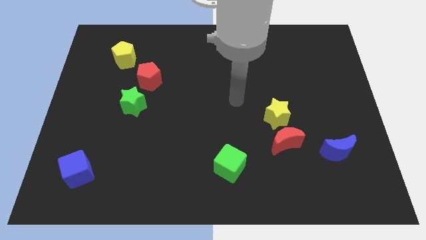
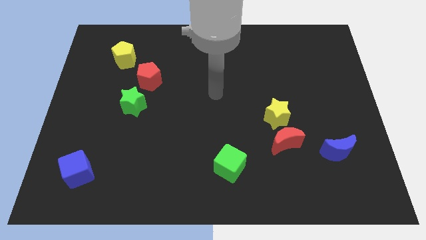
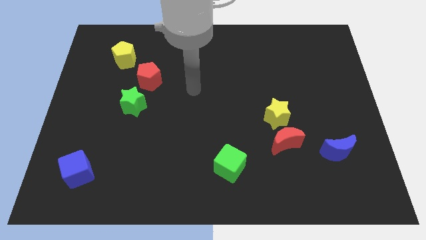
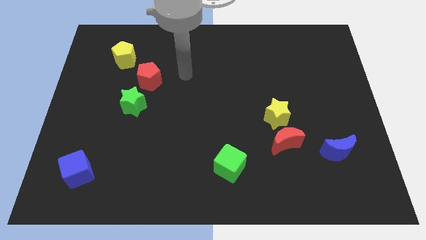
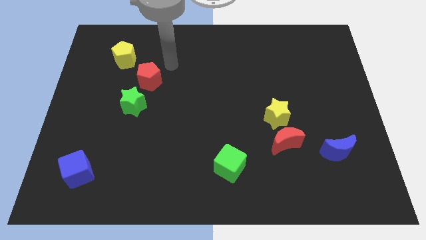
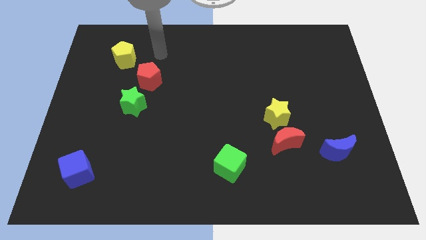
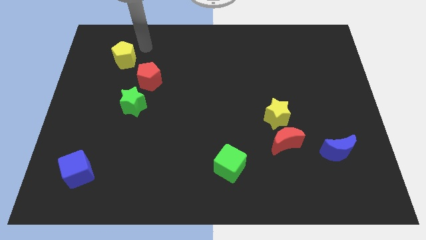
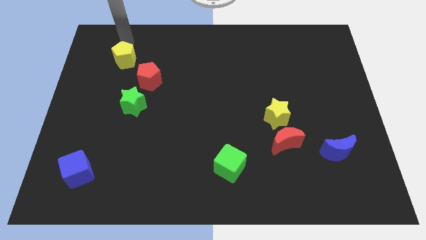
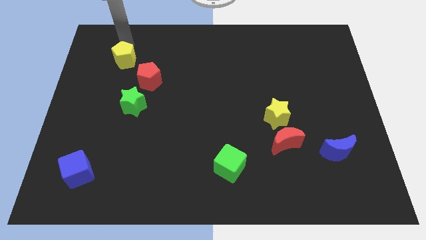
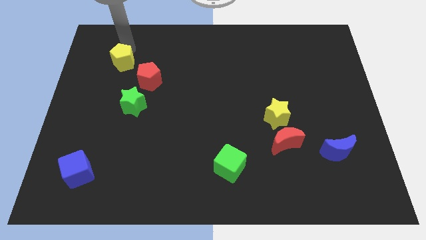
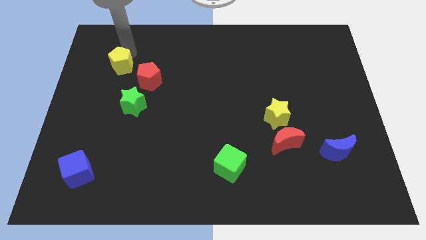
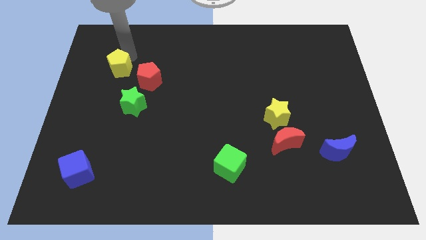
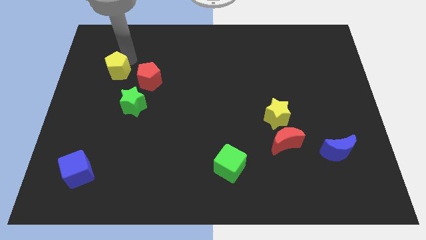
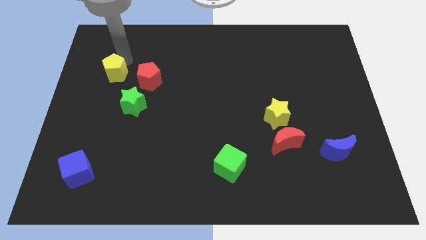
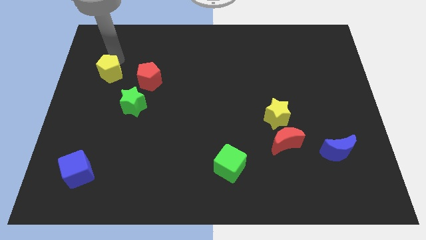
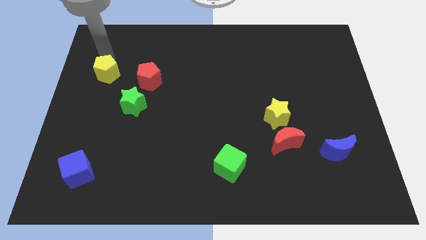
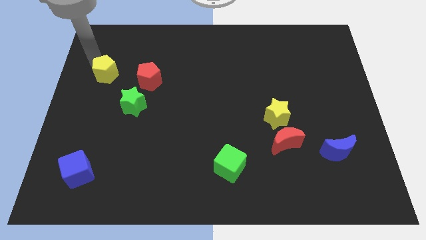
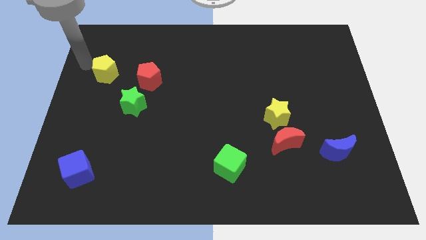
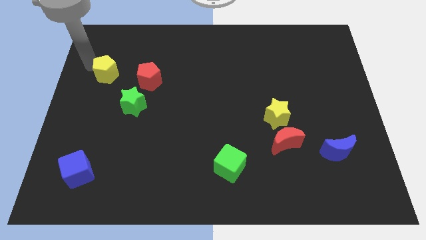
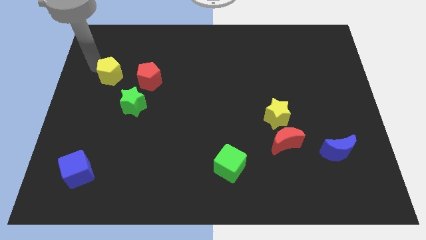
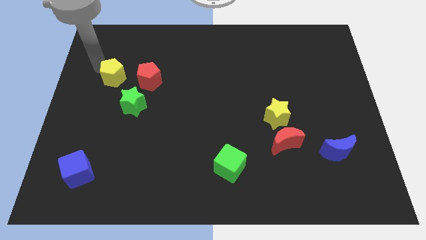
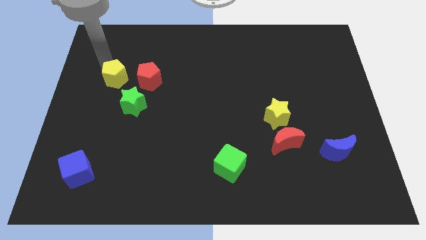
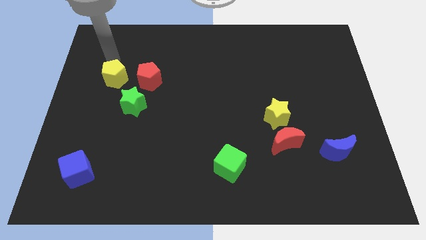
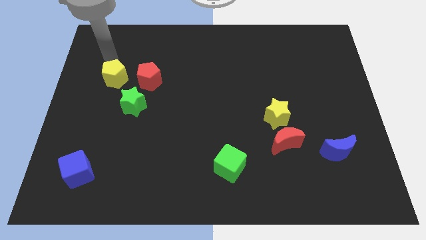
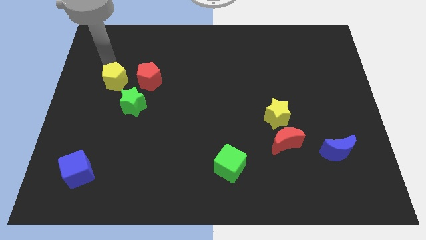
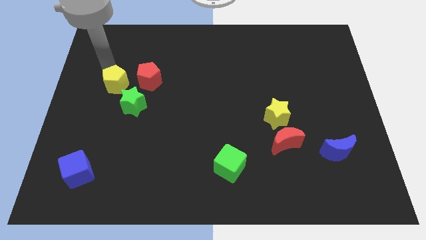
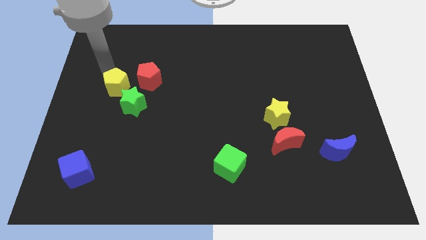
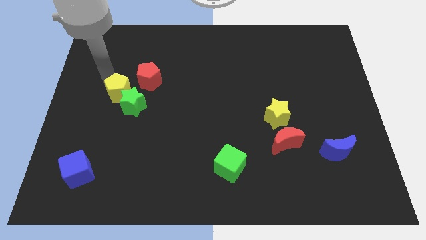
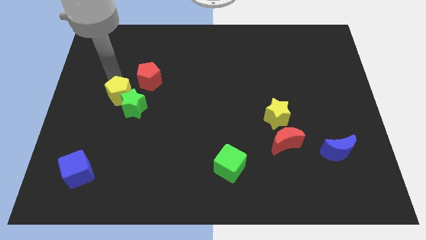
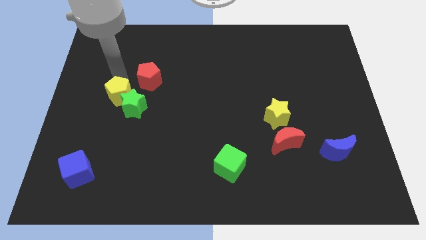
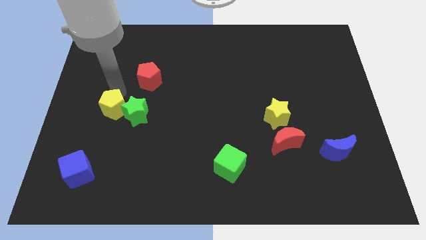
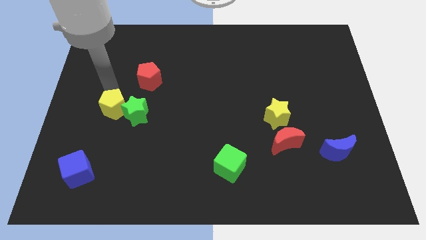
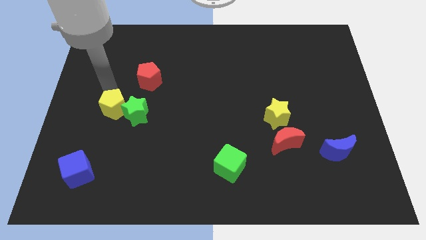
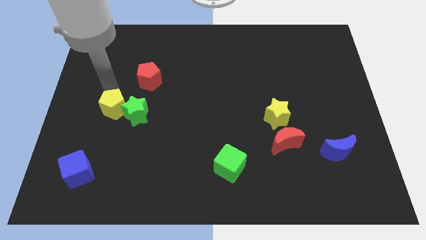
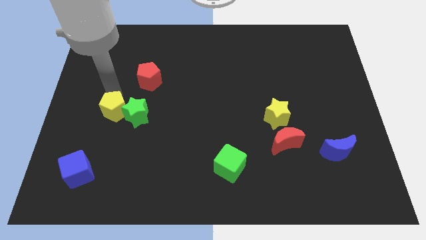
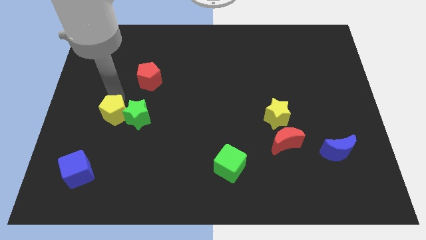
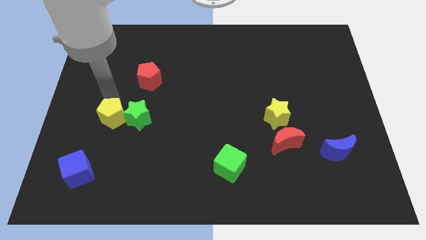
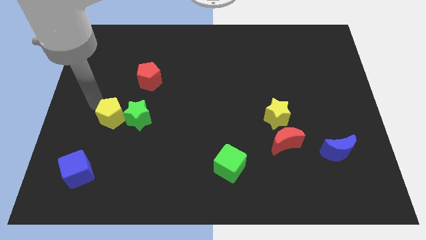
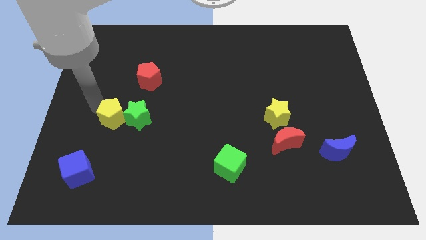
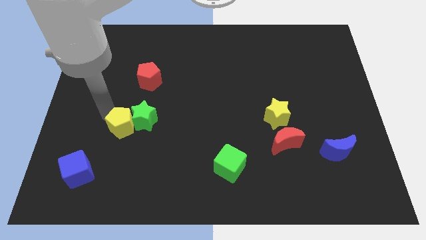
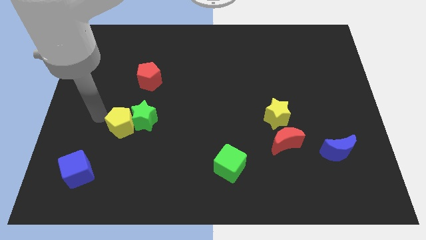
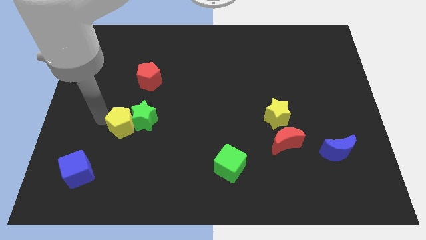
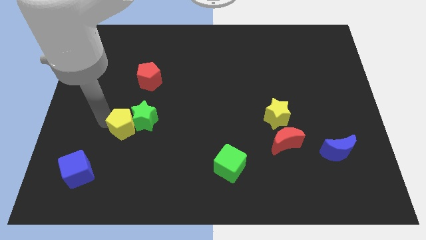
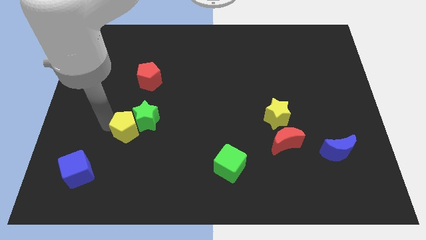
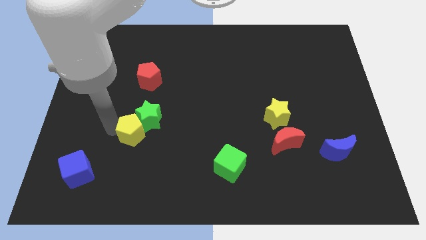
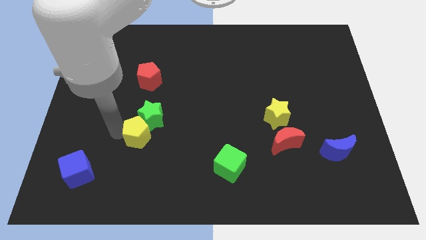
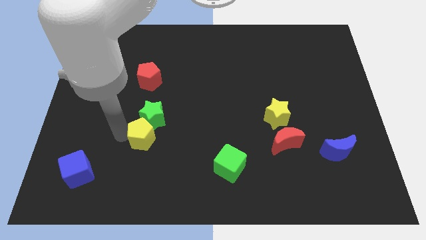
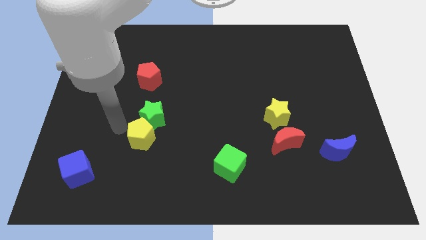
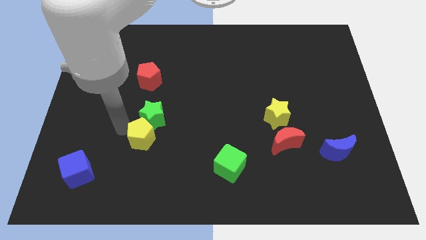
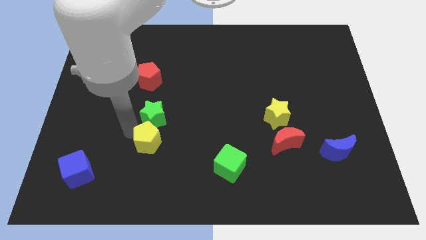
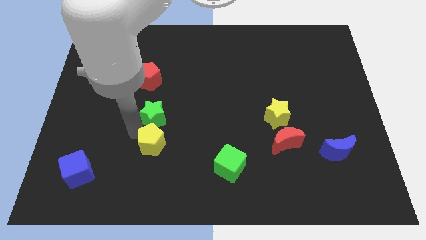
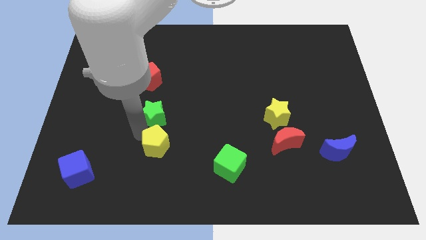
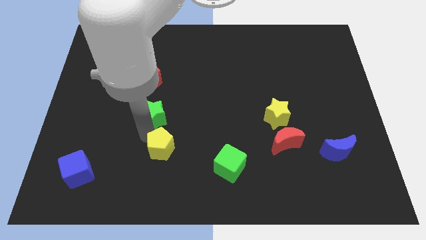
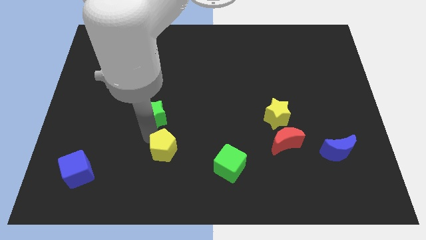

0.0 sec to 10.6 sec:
slide the yellow pentagon to the left of the green cube

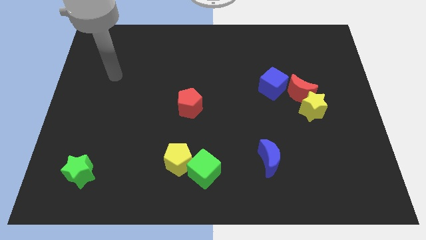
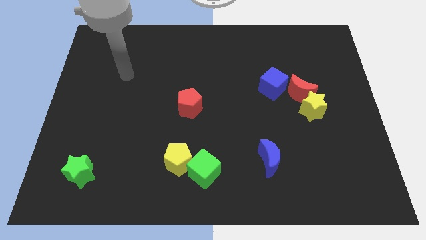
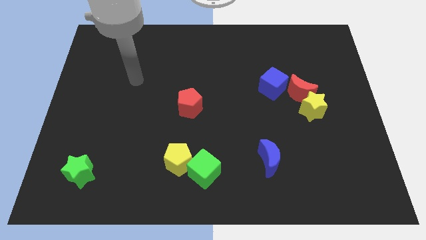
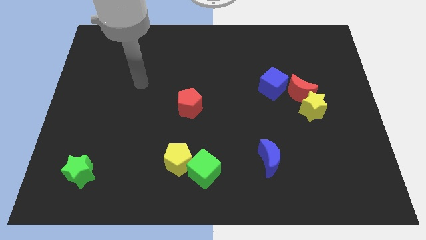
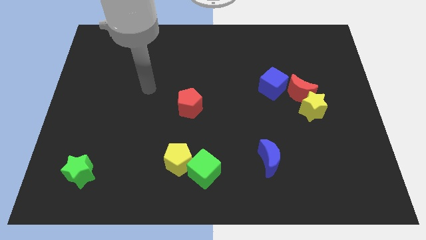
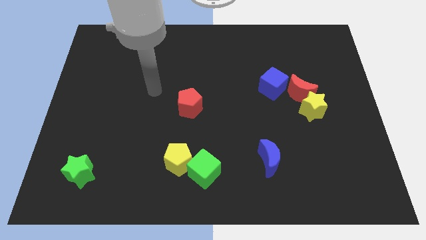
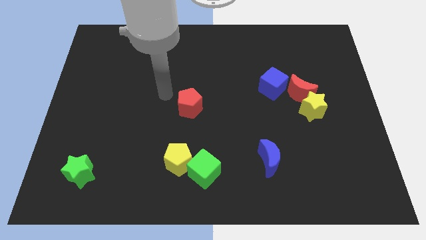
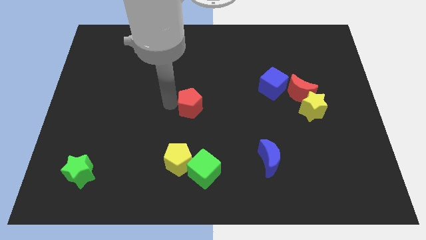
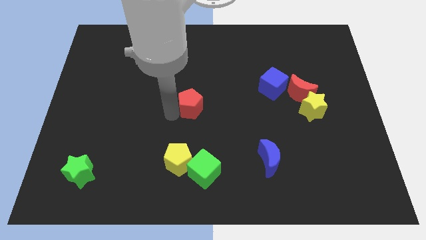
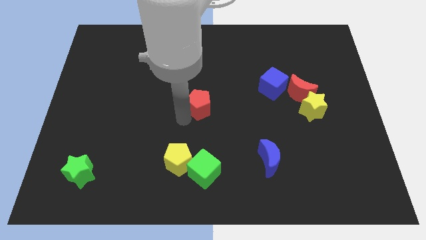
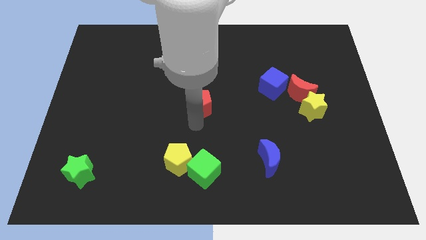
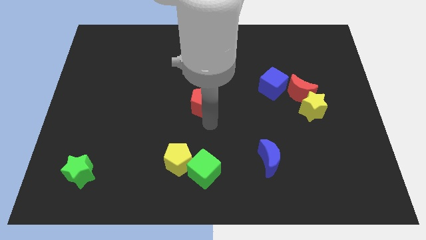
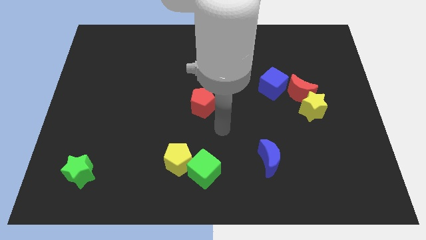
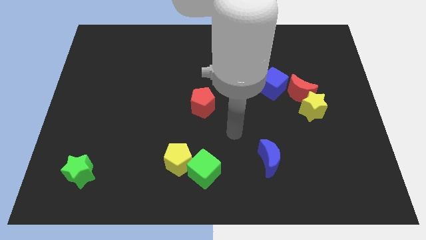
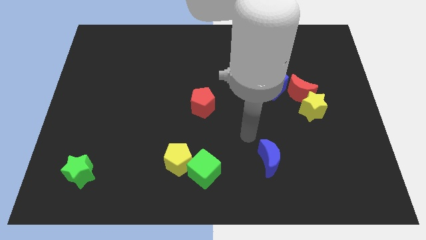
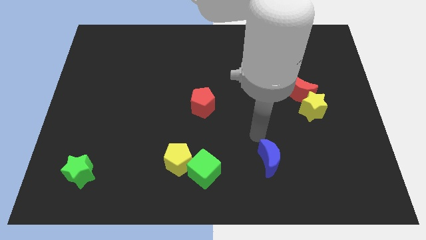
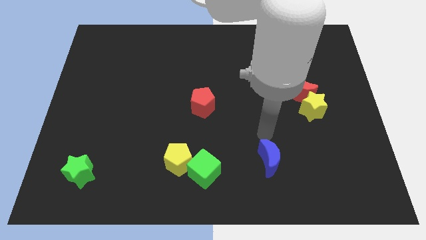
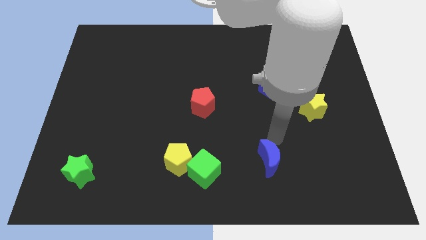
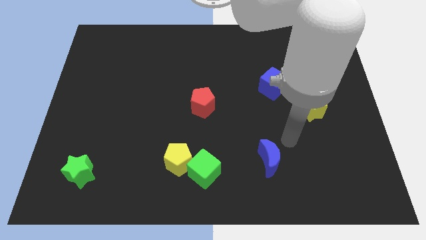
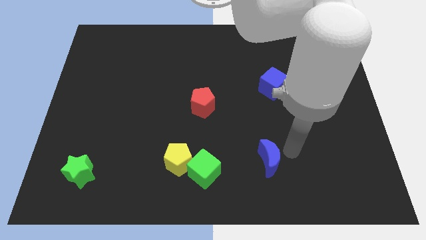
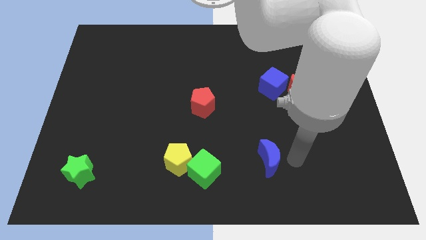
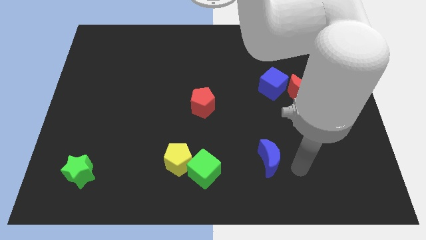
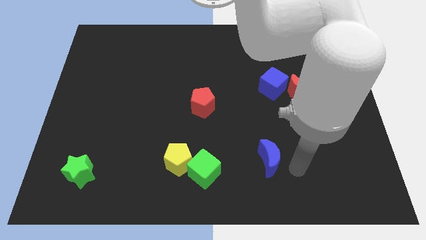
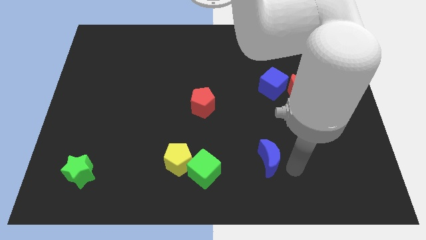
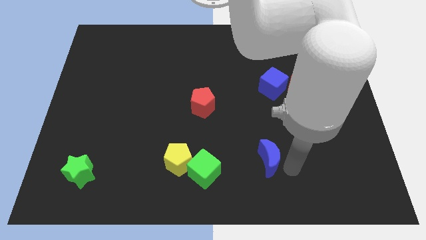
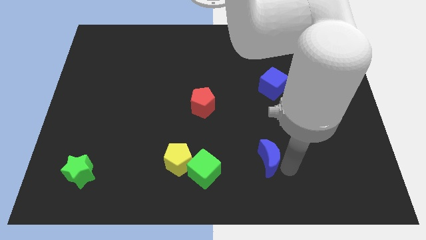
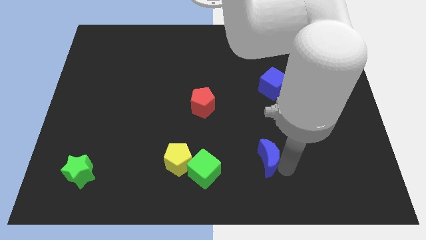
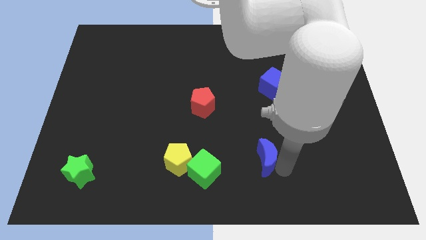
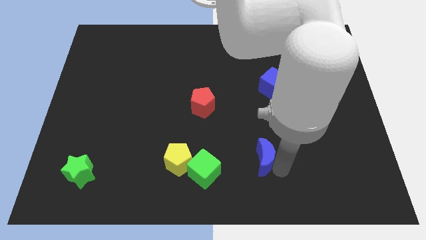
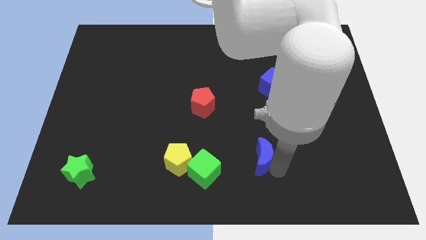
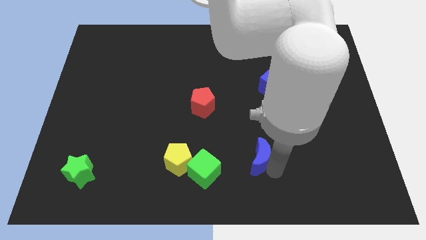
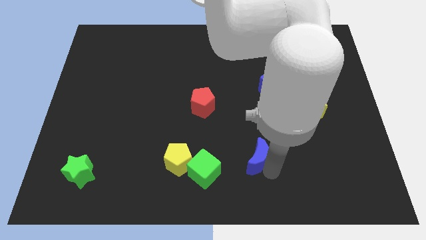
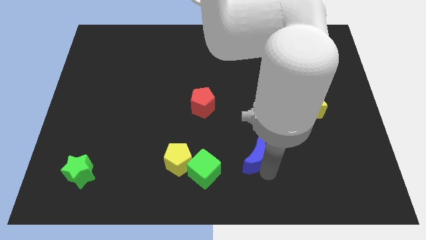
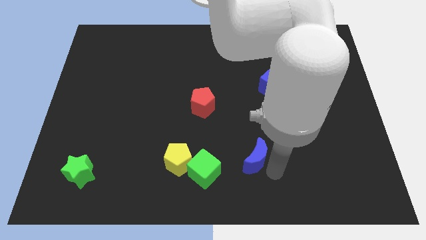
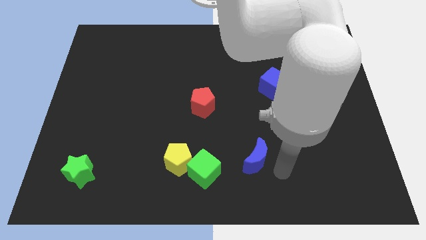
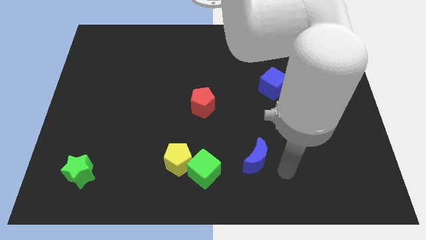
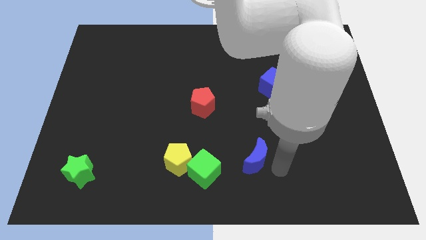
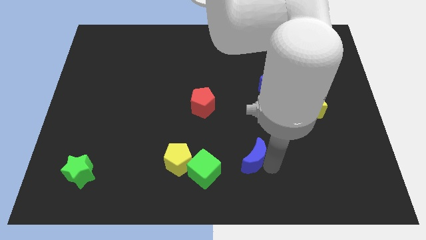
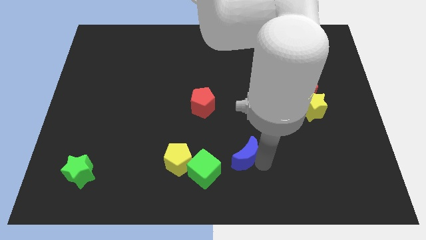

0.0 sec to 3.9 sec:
move the blue moon diagonally up and to the right of the green cube
